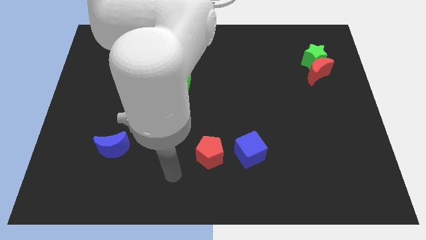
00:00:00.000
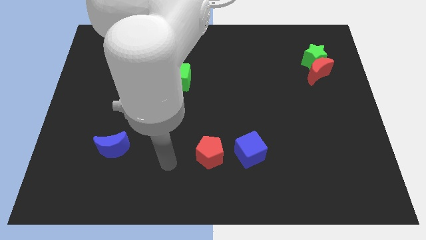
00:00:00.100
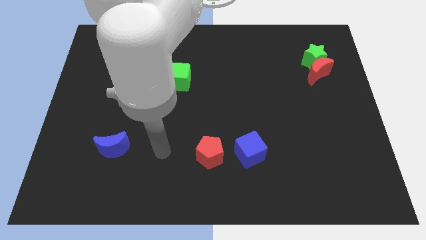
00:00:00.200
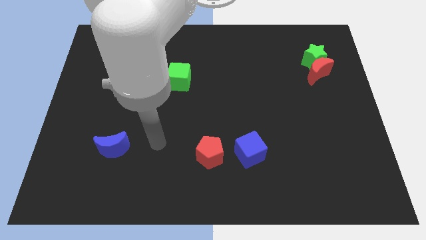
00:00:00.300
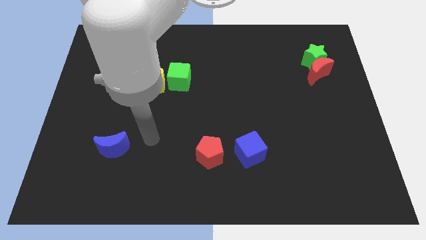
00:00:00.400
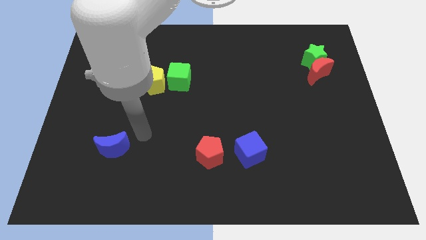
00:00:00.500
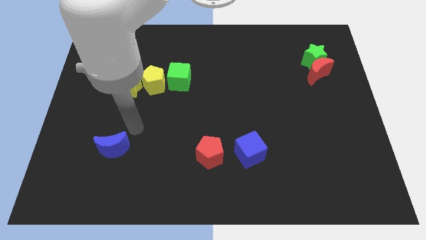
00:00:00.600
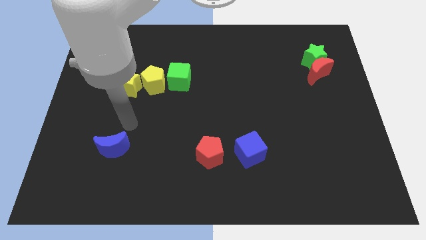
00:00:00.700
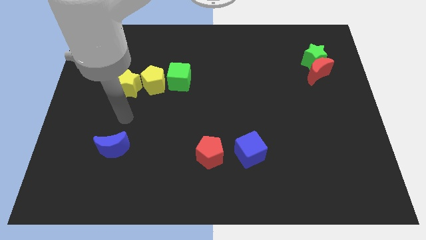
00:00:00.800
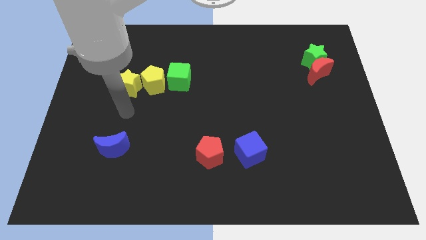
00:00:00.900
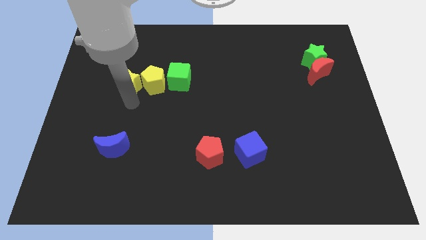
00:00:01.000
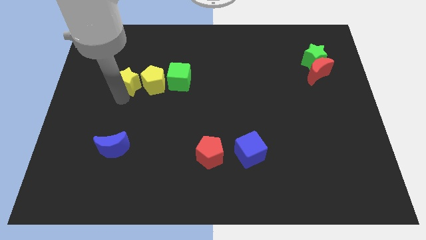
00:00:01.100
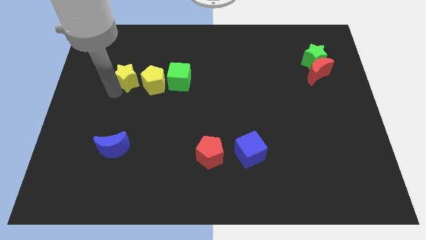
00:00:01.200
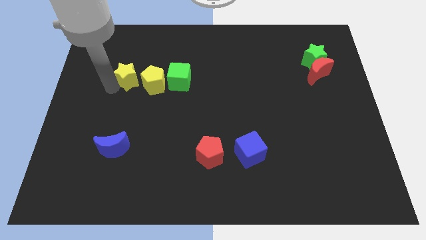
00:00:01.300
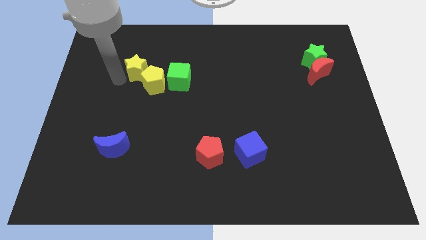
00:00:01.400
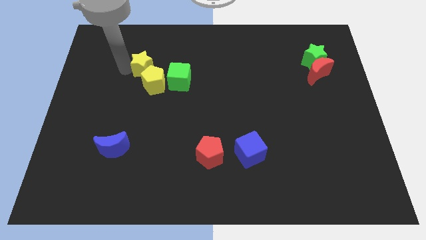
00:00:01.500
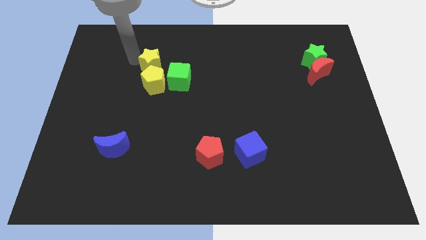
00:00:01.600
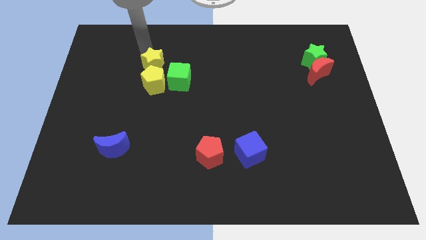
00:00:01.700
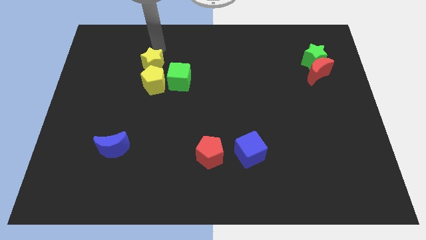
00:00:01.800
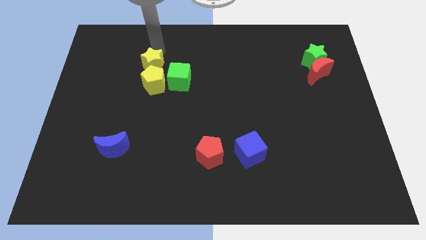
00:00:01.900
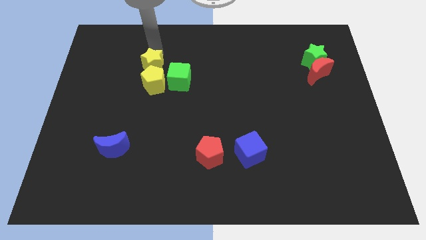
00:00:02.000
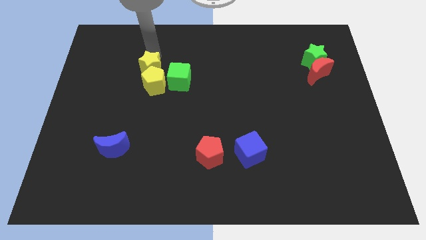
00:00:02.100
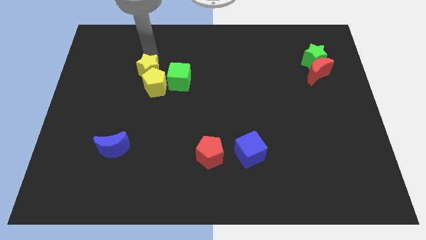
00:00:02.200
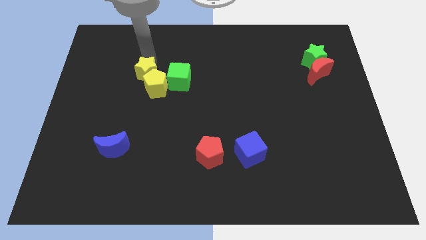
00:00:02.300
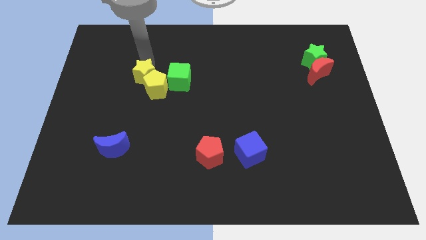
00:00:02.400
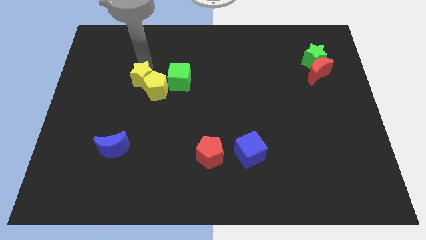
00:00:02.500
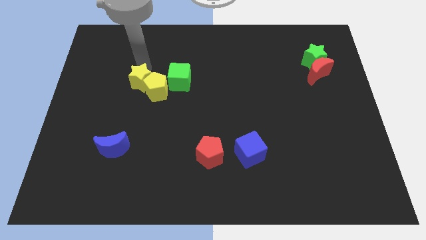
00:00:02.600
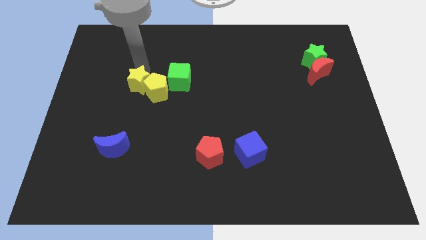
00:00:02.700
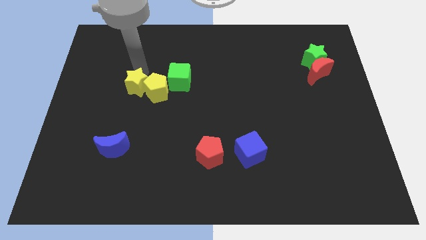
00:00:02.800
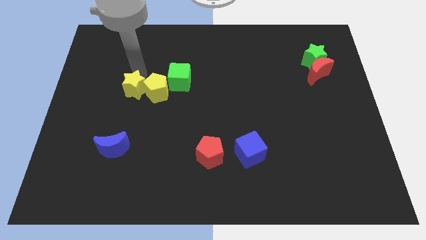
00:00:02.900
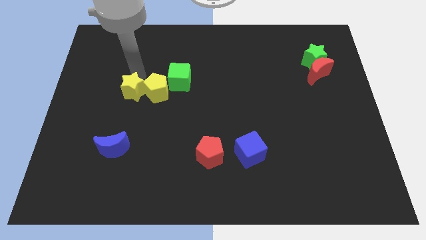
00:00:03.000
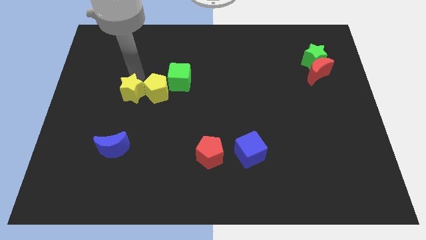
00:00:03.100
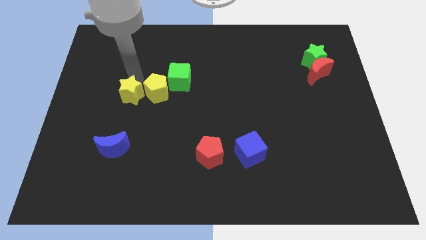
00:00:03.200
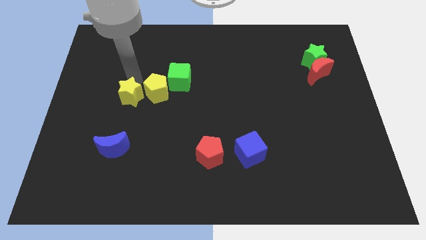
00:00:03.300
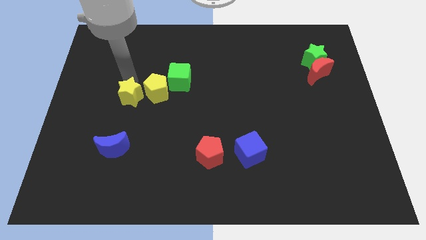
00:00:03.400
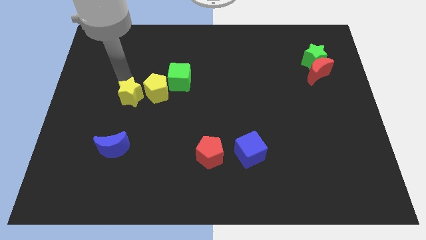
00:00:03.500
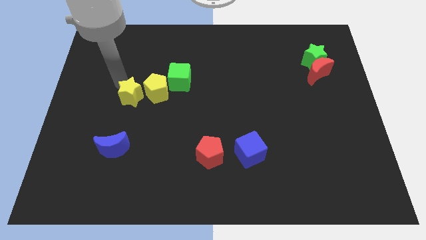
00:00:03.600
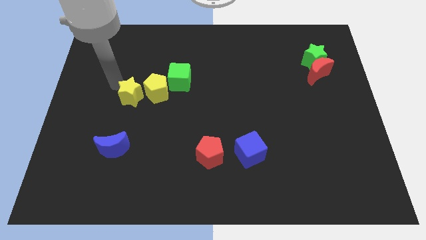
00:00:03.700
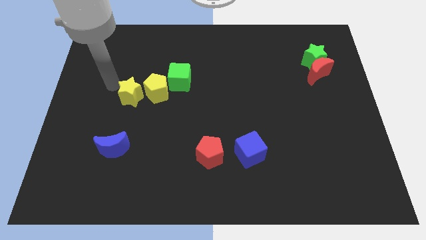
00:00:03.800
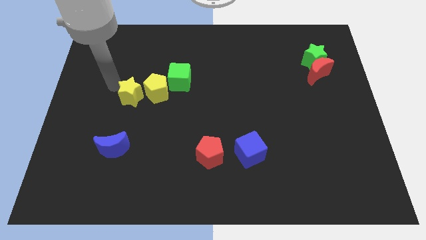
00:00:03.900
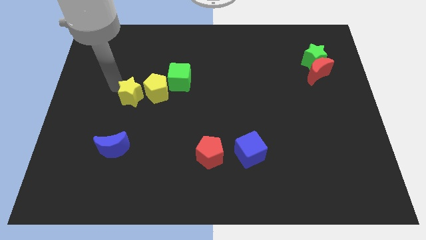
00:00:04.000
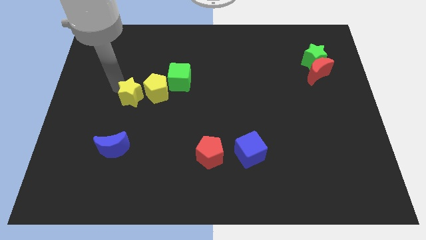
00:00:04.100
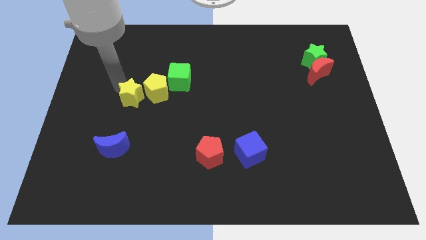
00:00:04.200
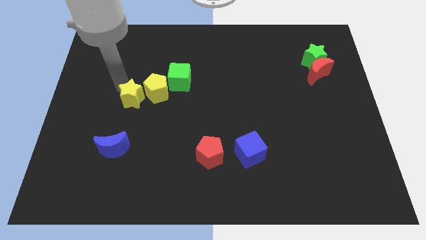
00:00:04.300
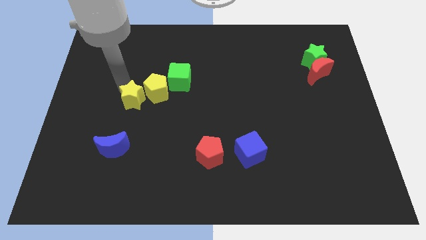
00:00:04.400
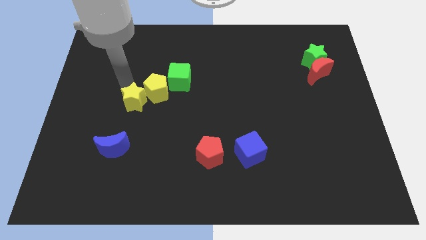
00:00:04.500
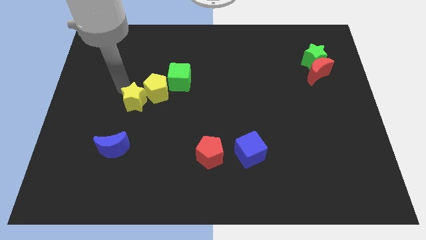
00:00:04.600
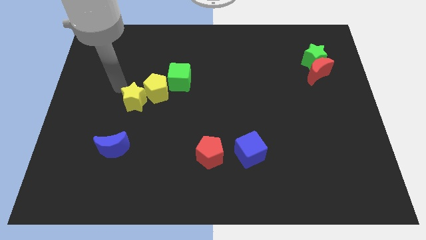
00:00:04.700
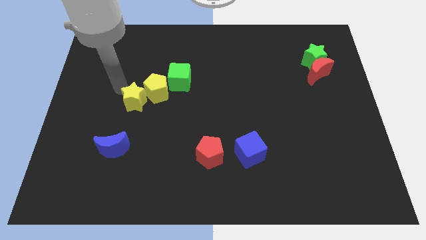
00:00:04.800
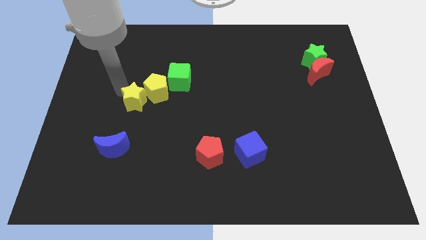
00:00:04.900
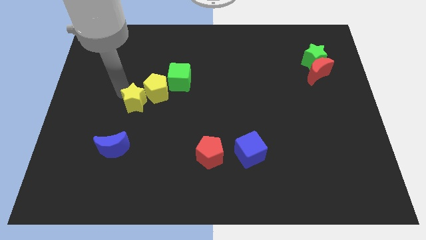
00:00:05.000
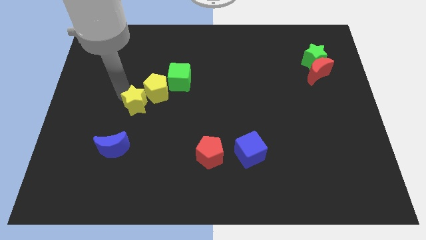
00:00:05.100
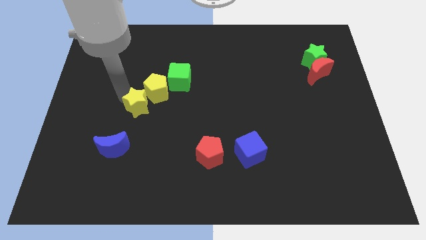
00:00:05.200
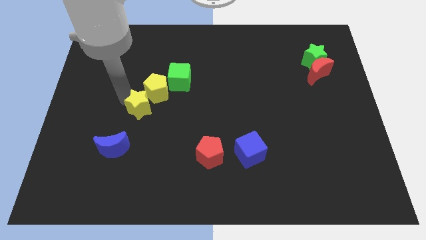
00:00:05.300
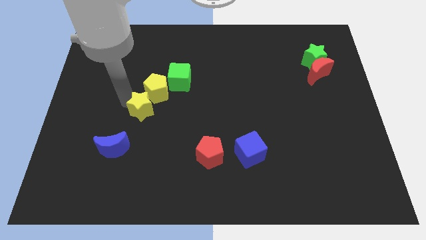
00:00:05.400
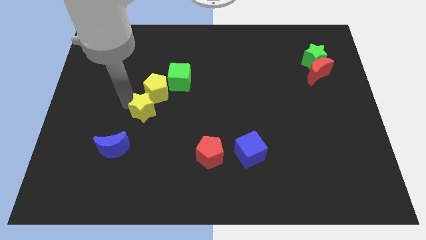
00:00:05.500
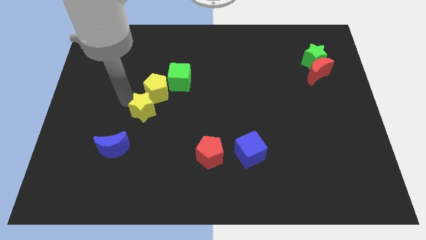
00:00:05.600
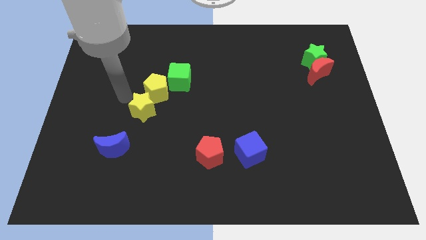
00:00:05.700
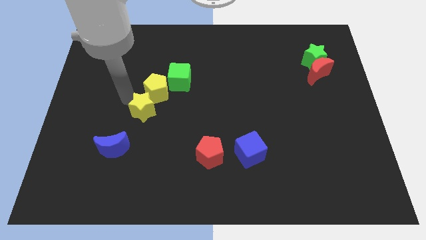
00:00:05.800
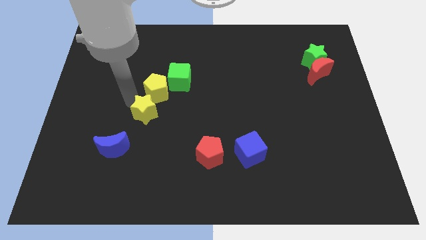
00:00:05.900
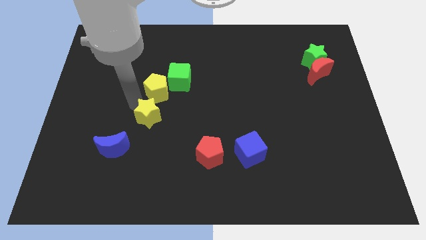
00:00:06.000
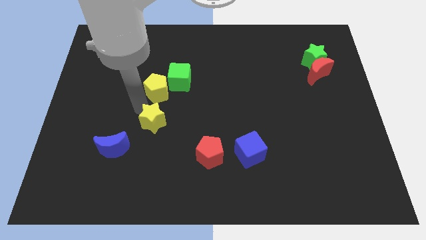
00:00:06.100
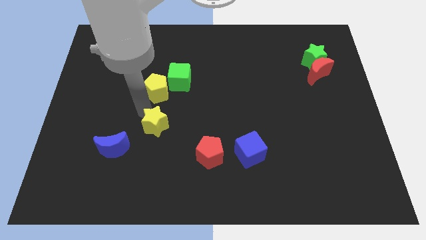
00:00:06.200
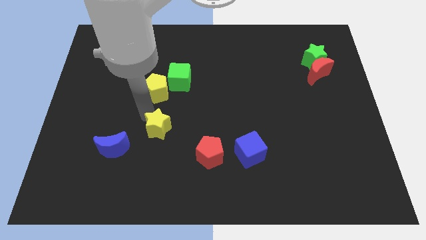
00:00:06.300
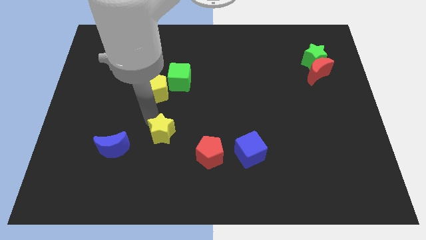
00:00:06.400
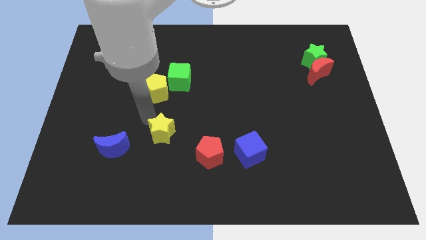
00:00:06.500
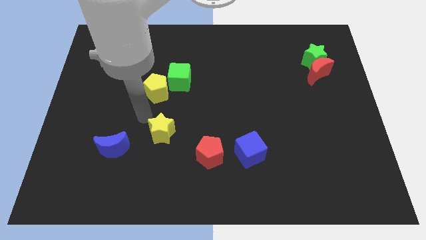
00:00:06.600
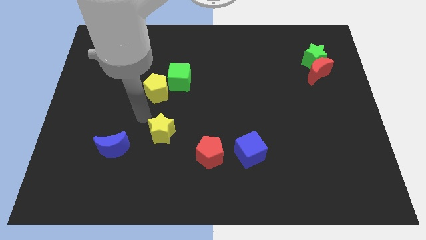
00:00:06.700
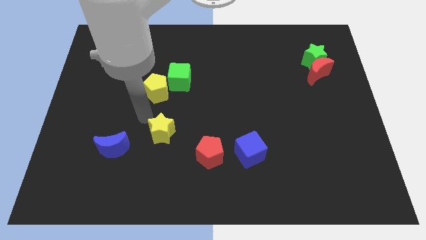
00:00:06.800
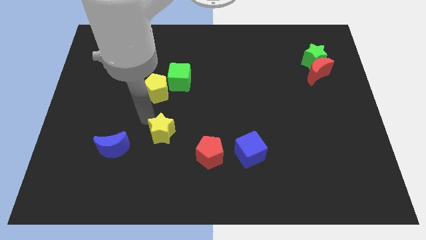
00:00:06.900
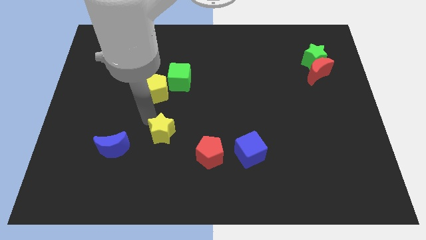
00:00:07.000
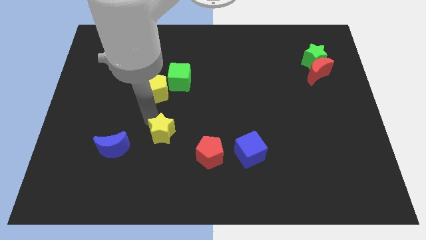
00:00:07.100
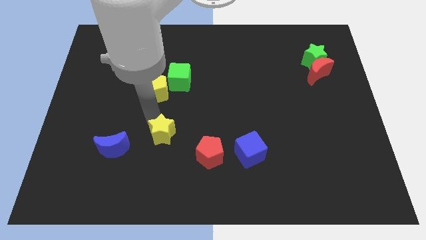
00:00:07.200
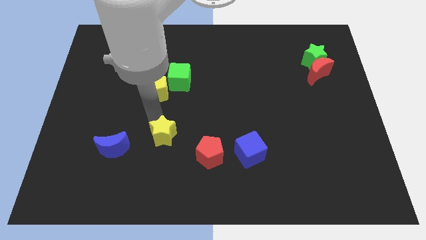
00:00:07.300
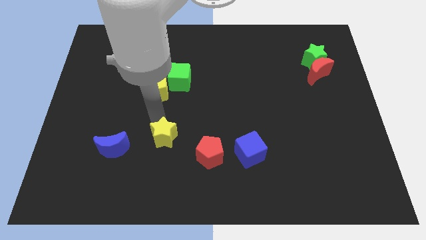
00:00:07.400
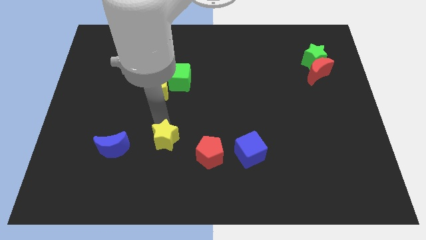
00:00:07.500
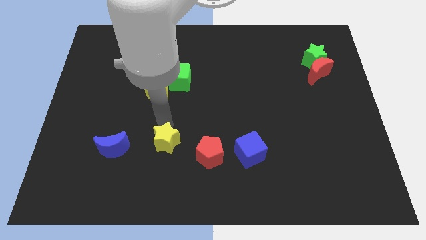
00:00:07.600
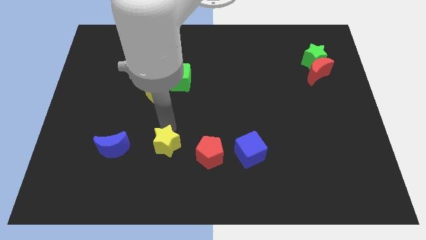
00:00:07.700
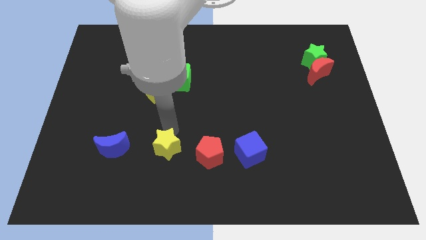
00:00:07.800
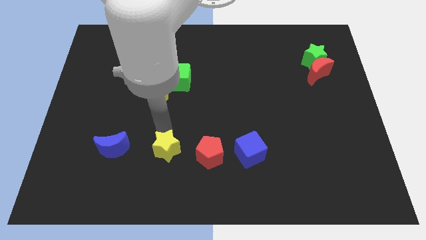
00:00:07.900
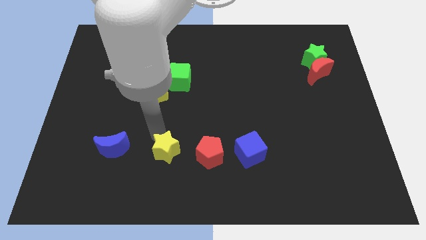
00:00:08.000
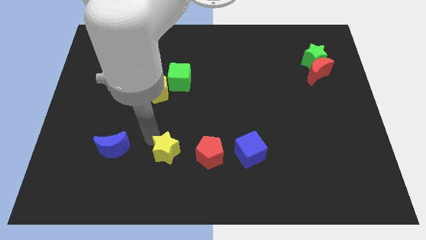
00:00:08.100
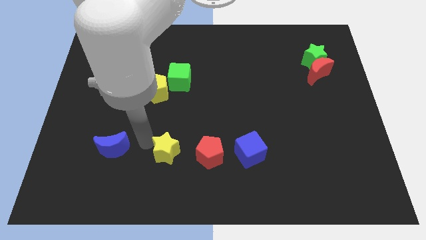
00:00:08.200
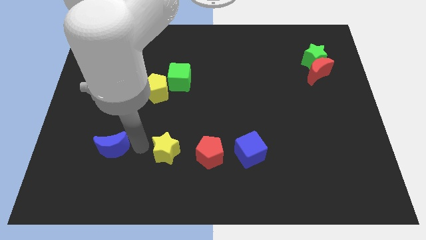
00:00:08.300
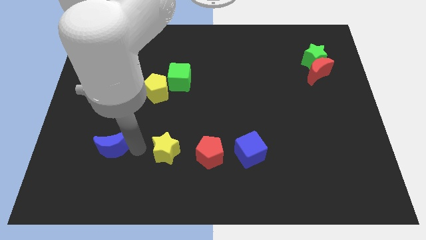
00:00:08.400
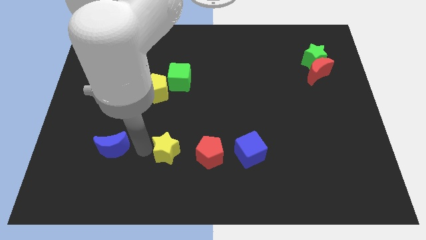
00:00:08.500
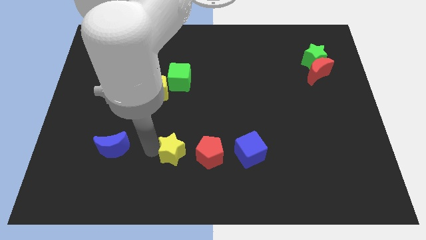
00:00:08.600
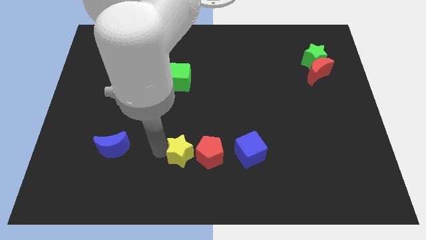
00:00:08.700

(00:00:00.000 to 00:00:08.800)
put the yellow star left of the blue cube
